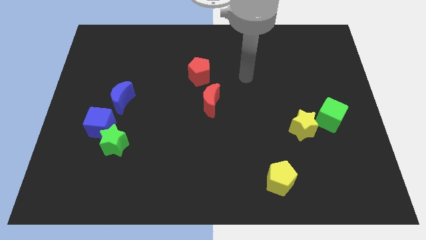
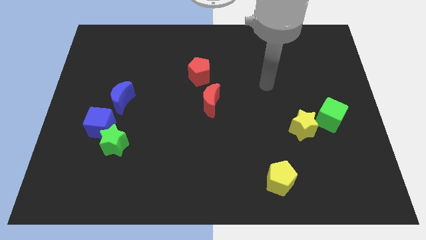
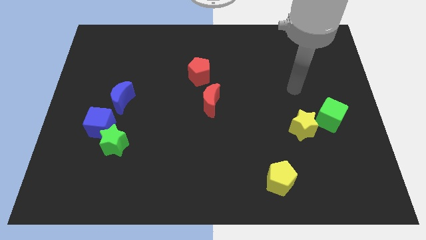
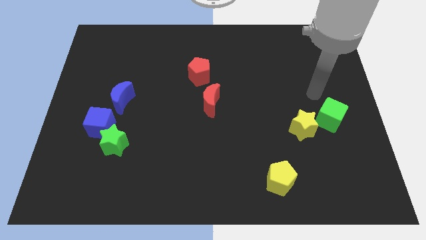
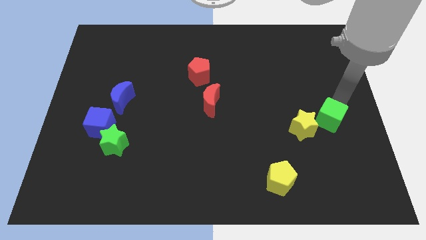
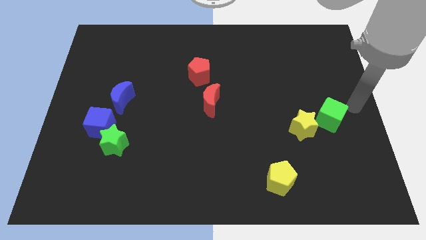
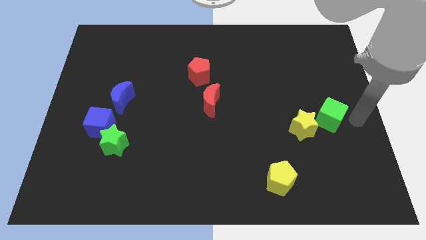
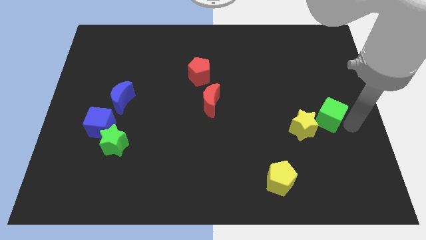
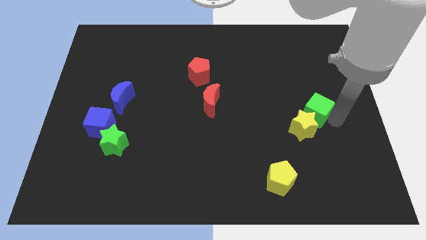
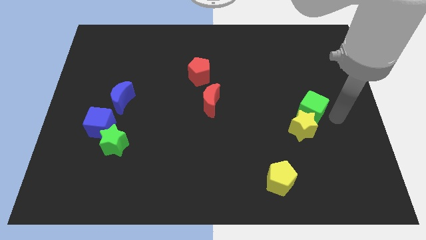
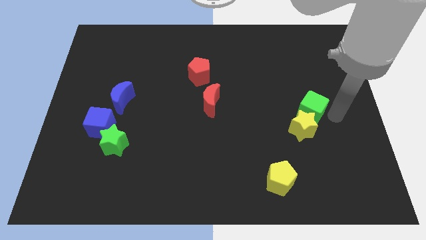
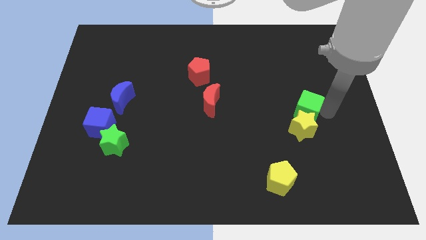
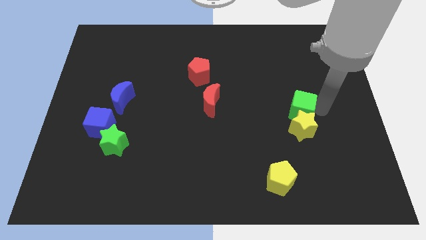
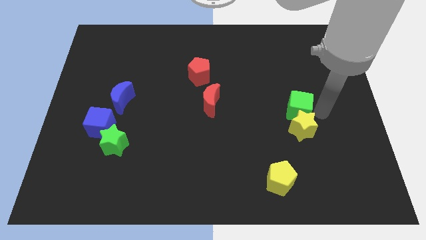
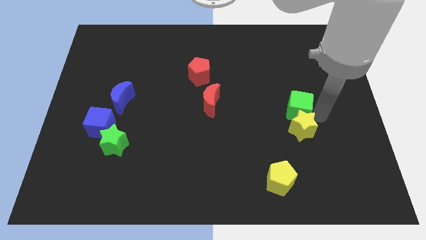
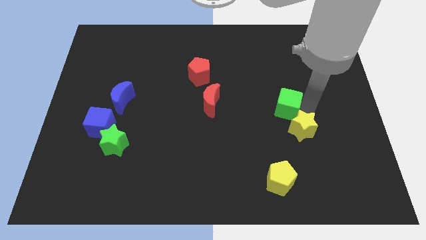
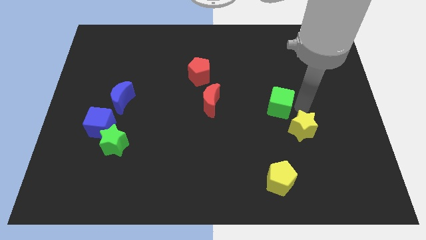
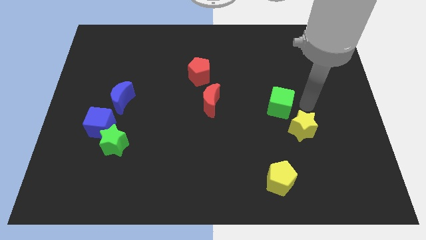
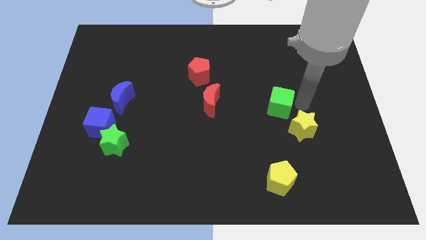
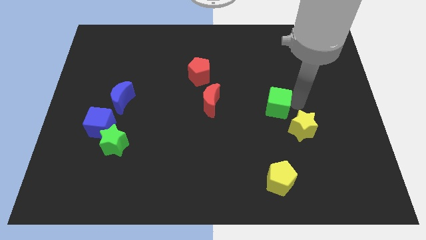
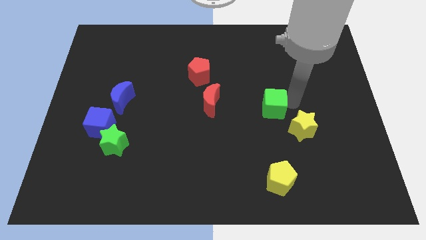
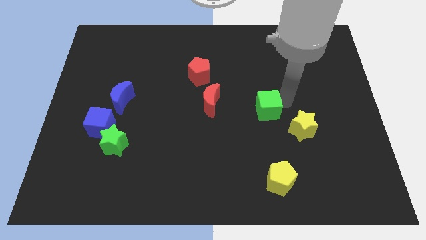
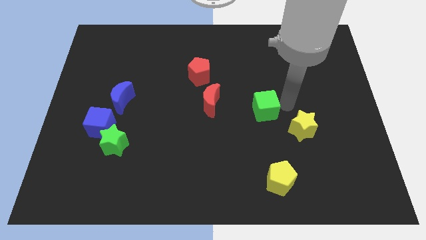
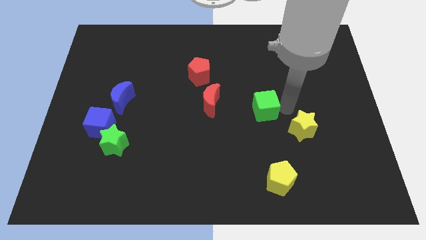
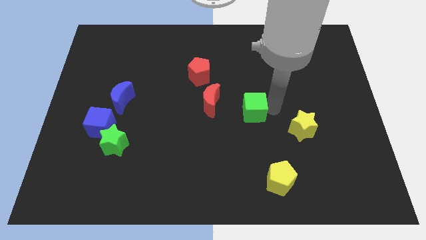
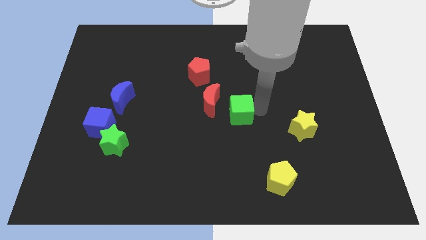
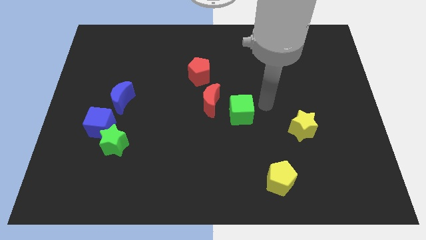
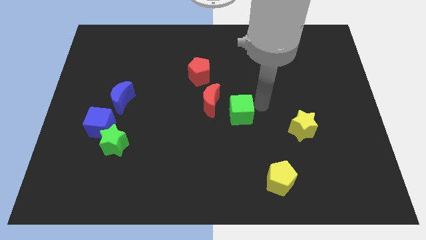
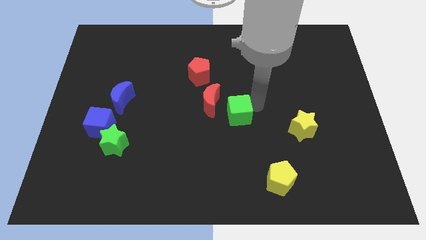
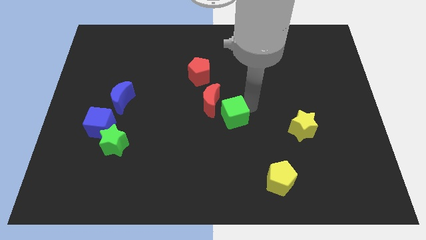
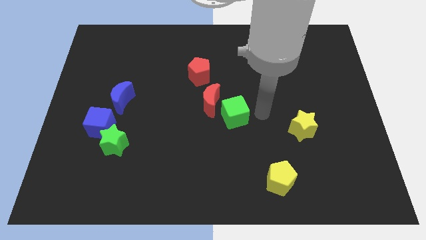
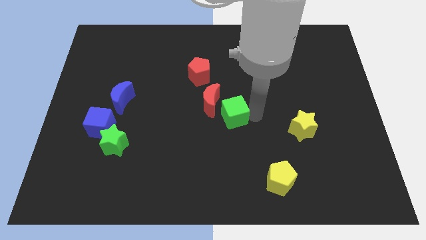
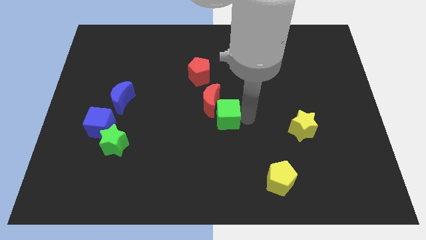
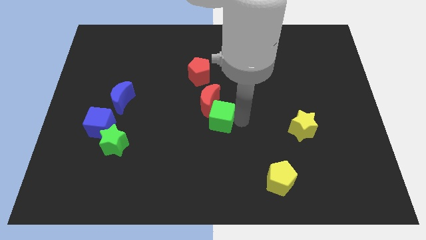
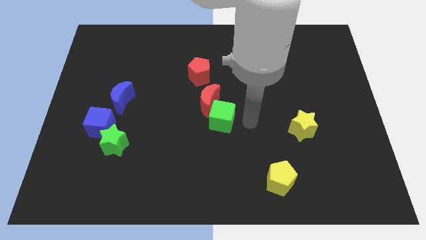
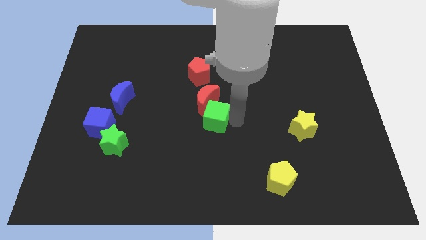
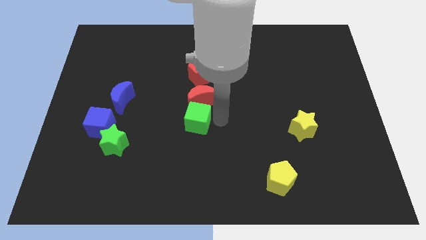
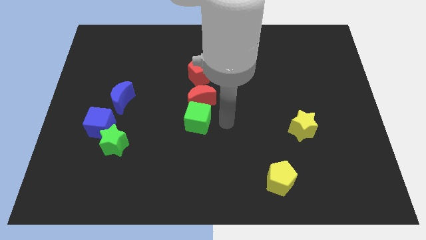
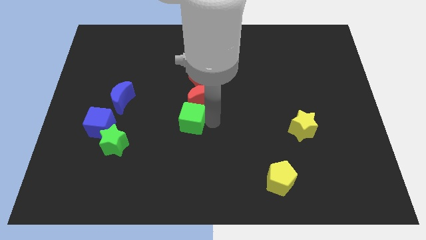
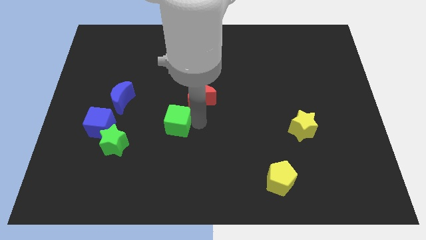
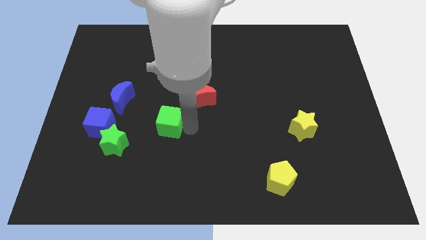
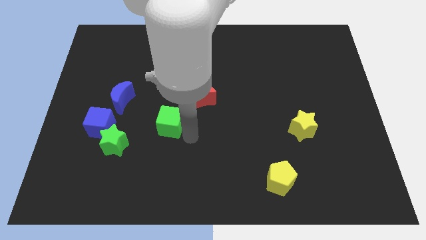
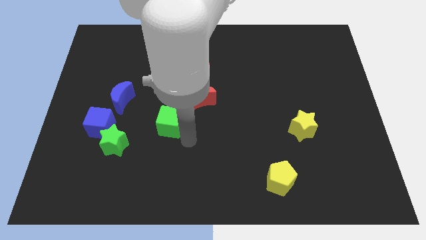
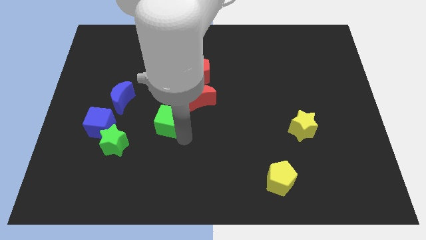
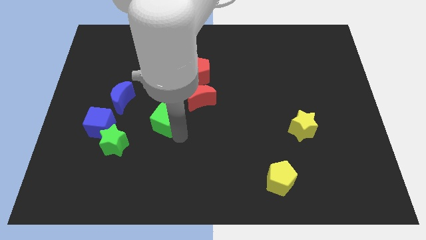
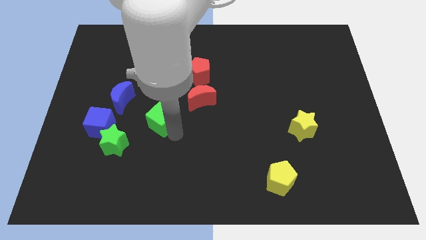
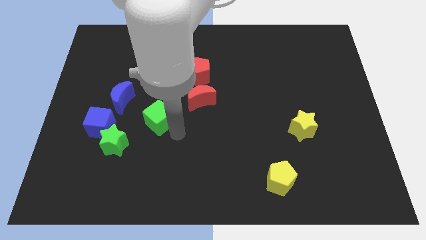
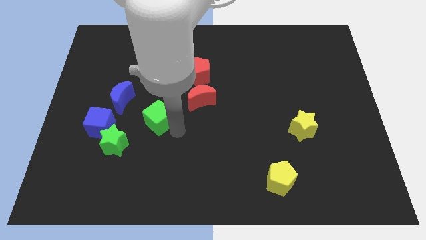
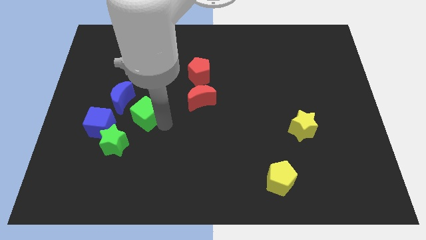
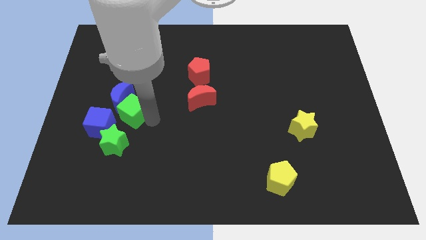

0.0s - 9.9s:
move the green cube towards the blue moon

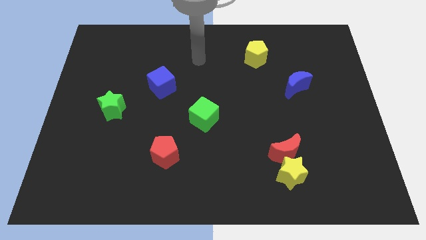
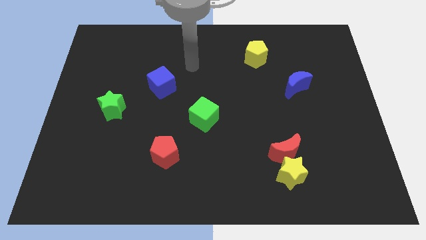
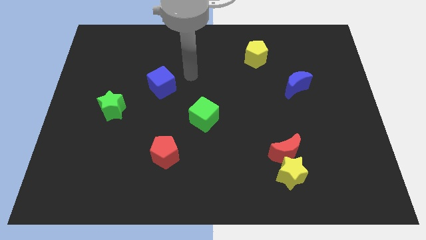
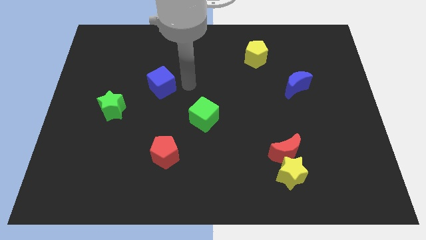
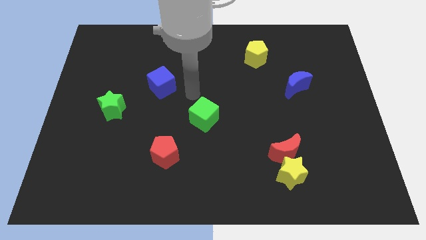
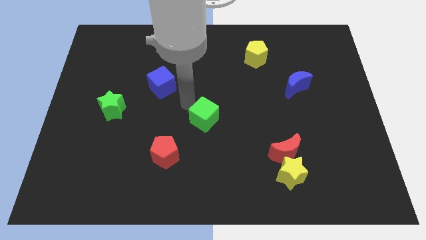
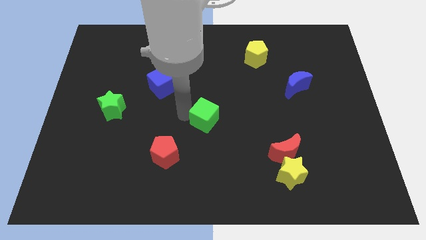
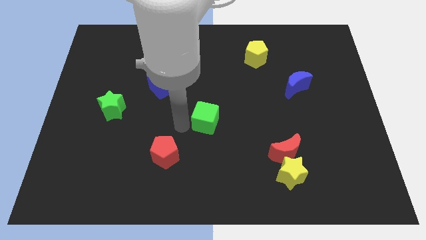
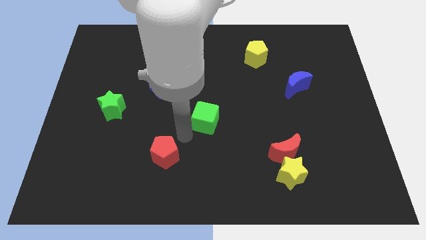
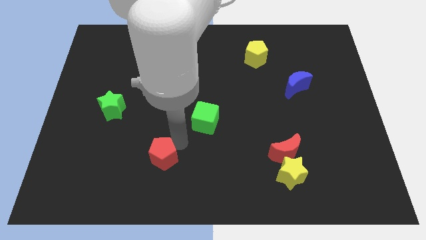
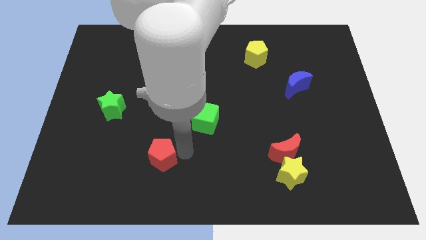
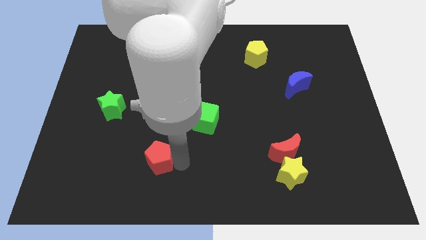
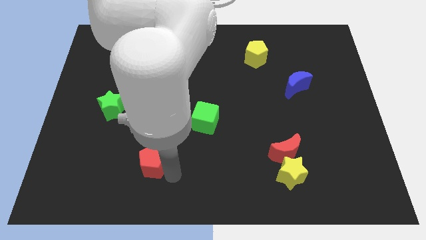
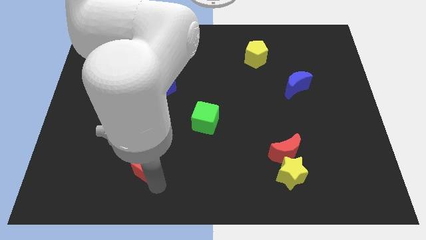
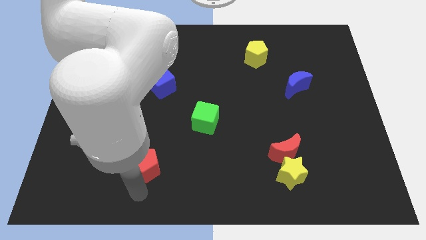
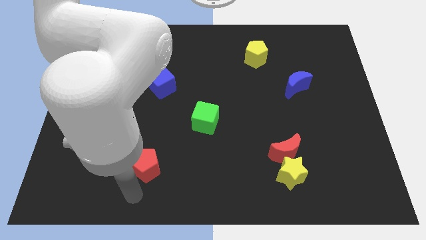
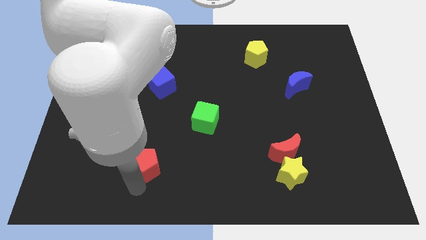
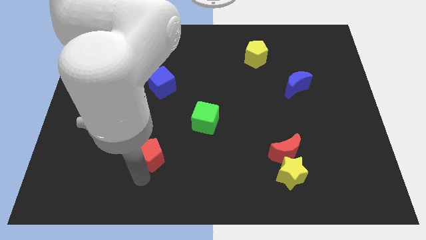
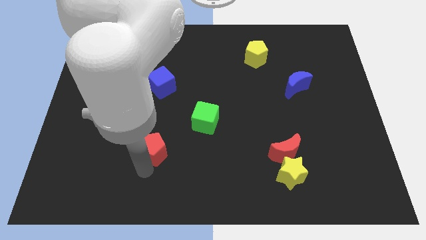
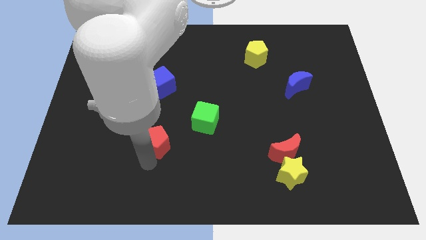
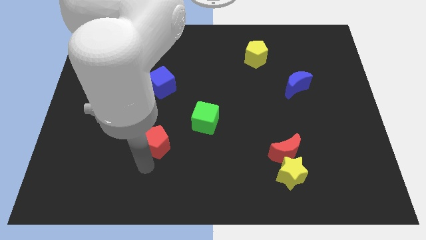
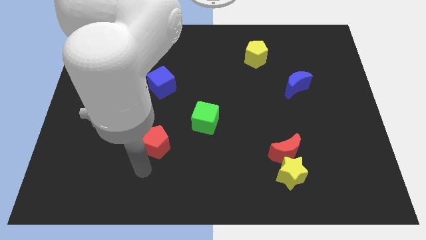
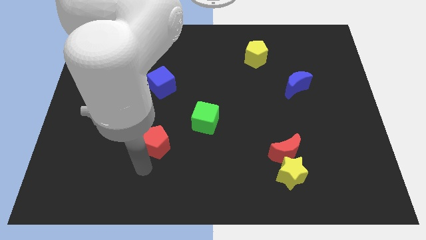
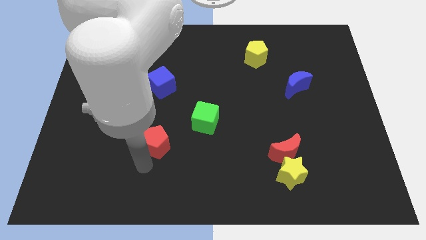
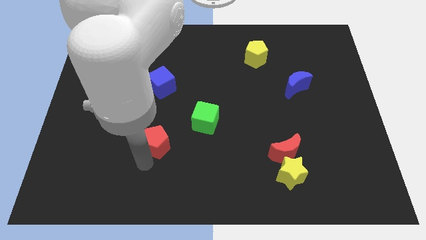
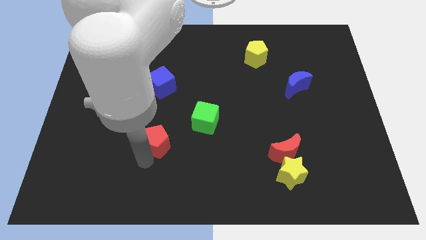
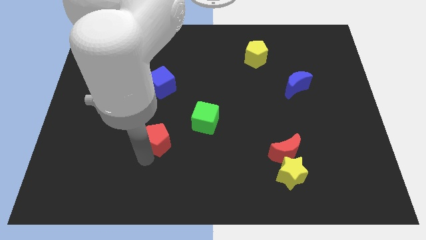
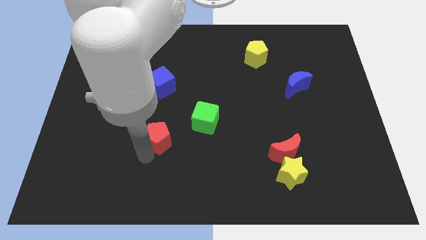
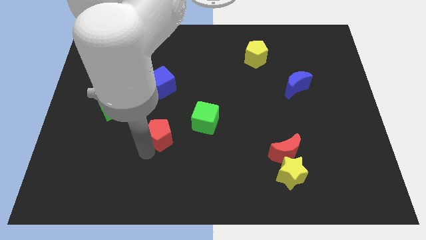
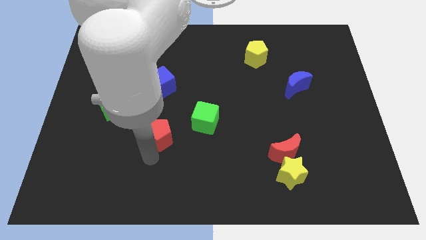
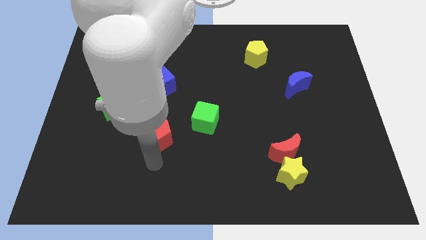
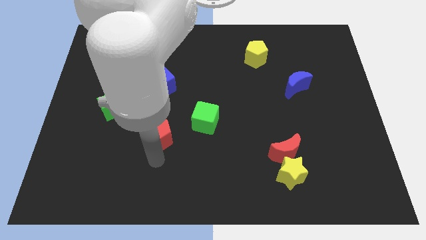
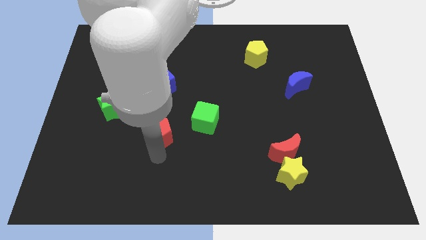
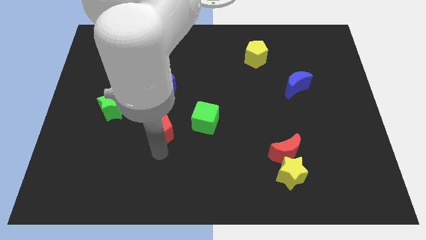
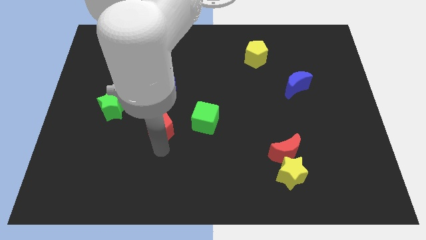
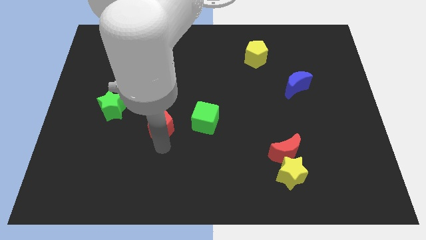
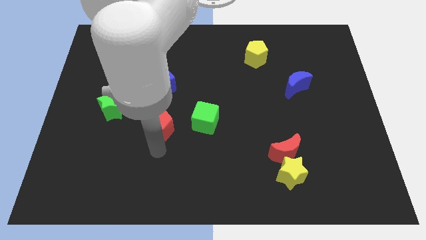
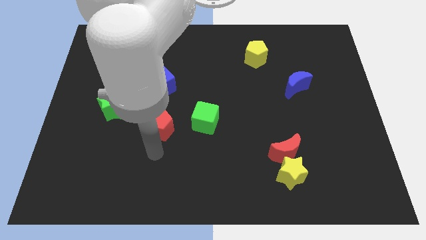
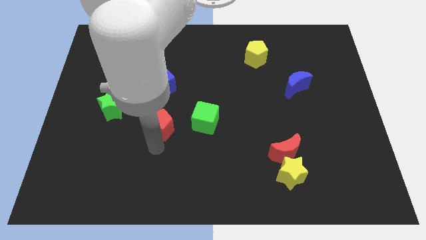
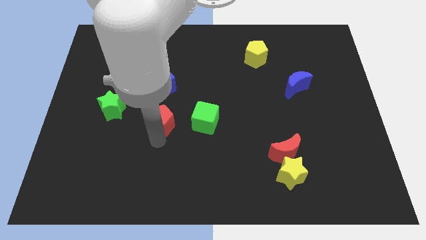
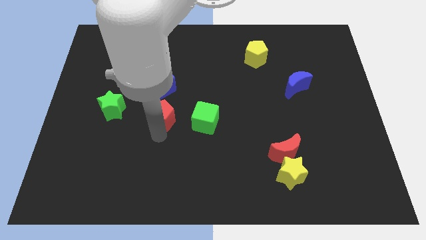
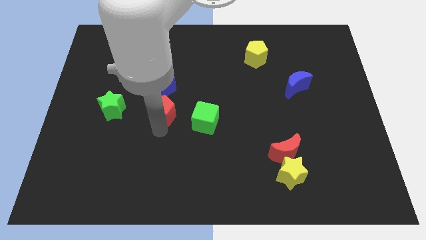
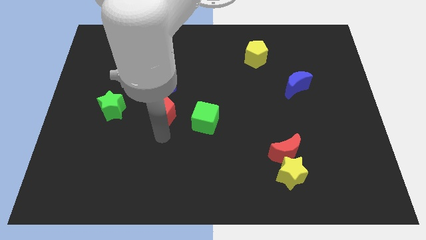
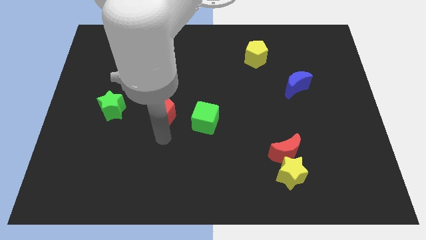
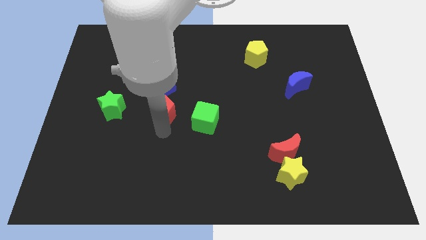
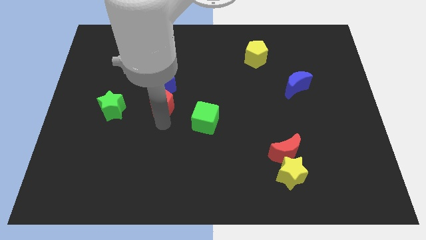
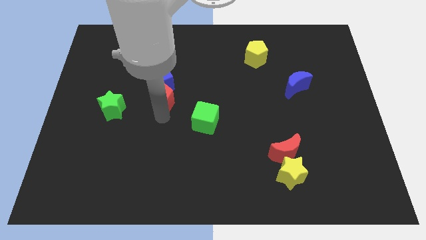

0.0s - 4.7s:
move the red pentagon towards the blue cube
